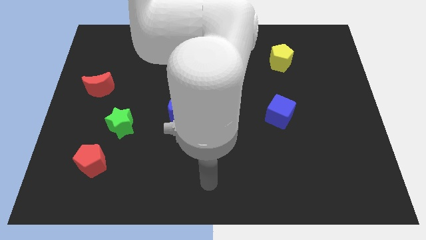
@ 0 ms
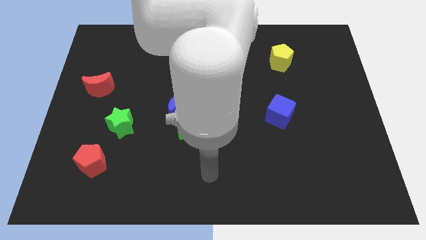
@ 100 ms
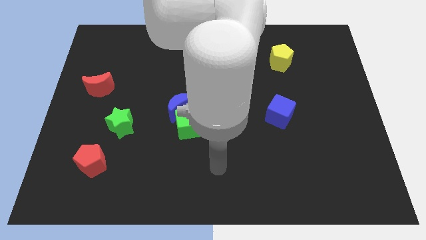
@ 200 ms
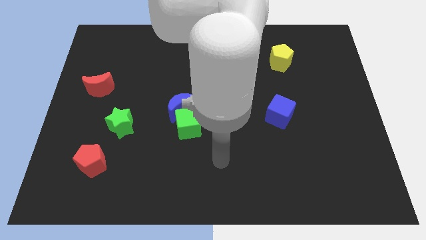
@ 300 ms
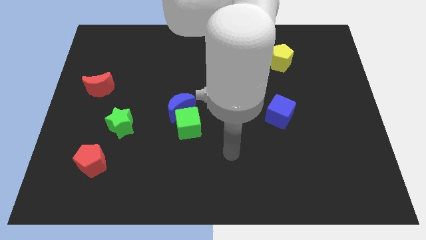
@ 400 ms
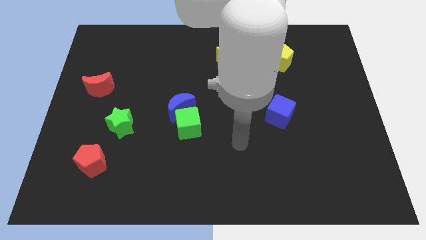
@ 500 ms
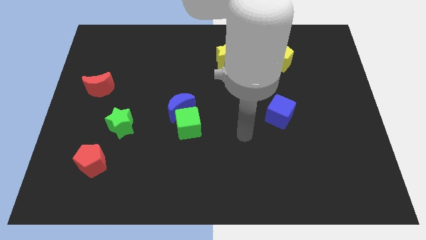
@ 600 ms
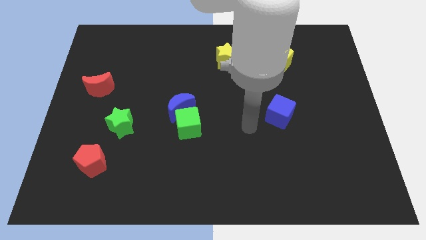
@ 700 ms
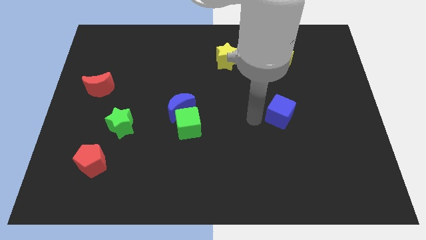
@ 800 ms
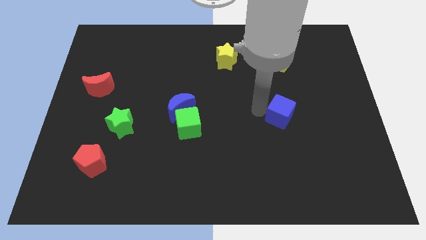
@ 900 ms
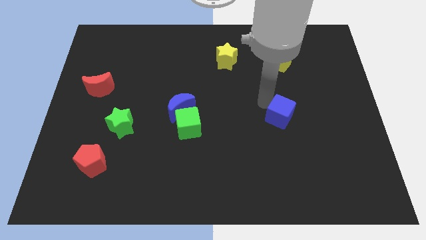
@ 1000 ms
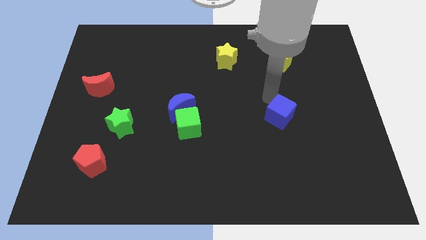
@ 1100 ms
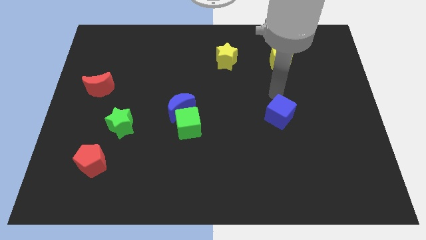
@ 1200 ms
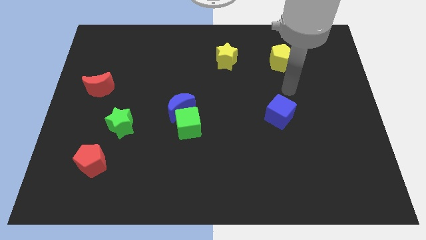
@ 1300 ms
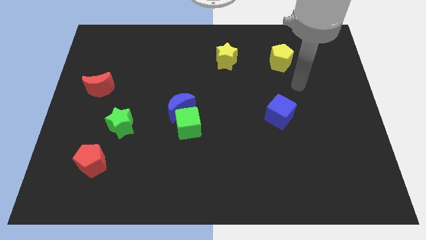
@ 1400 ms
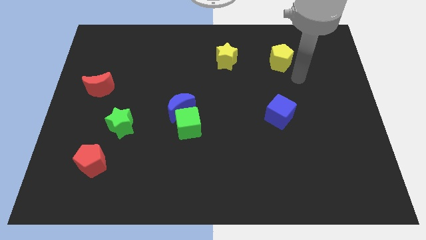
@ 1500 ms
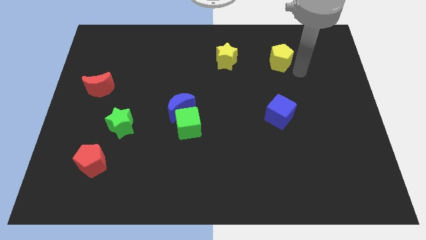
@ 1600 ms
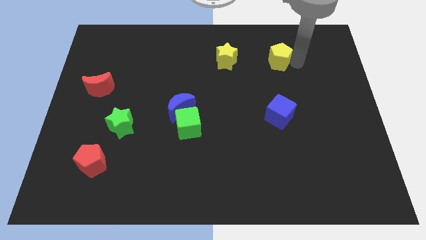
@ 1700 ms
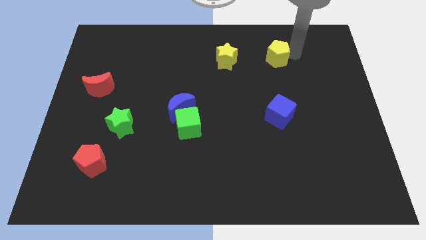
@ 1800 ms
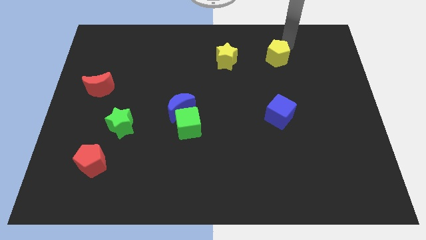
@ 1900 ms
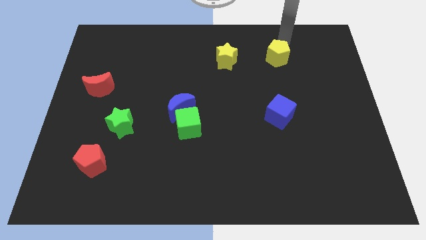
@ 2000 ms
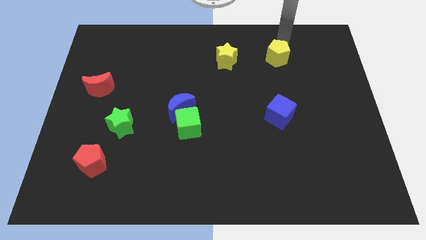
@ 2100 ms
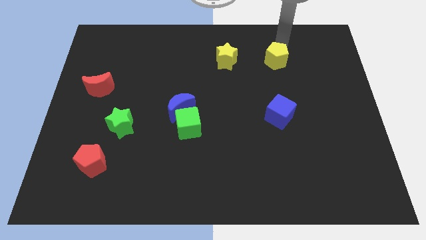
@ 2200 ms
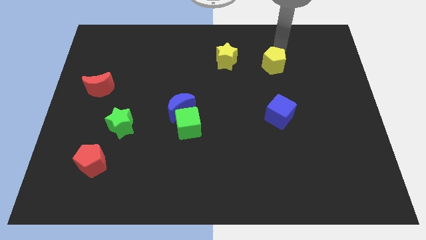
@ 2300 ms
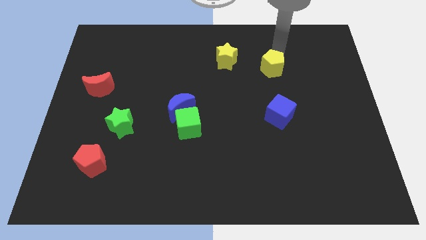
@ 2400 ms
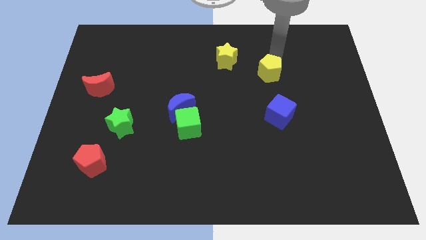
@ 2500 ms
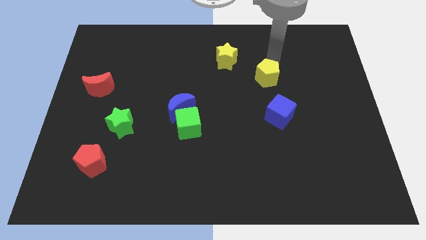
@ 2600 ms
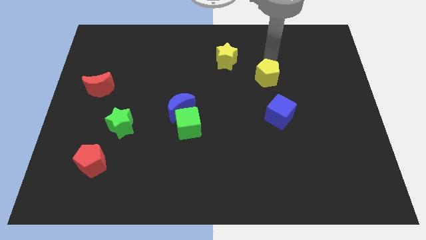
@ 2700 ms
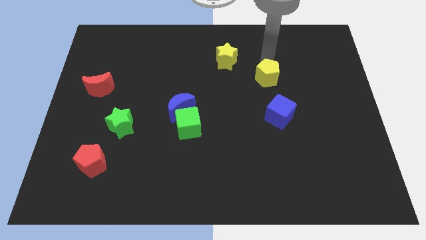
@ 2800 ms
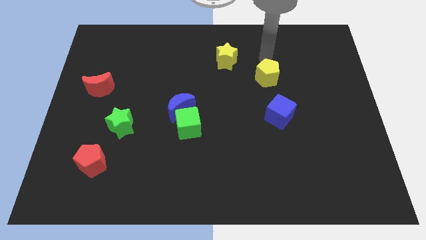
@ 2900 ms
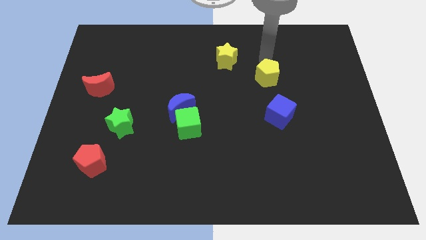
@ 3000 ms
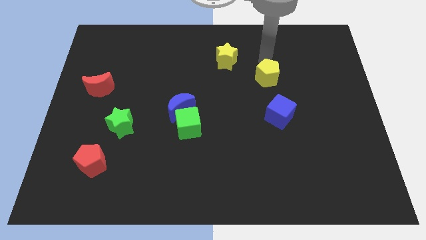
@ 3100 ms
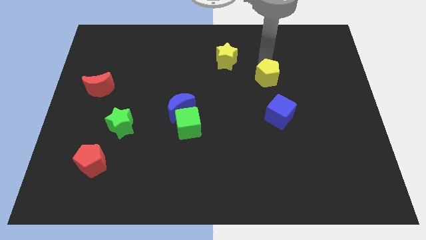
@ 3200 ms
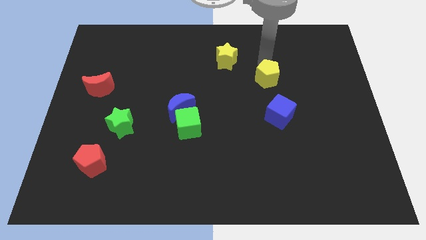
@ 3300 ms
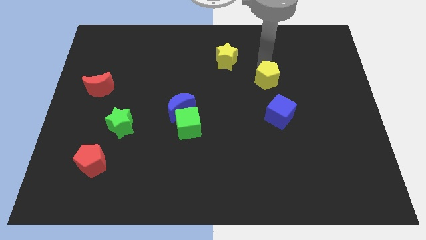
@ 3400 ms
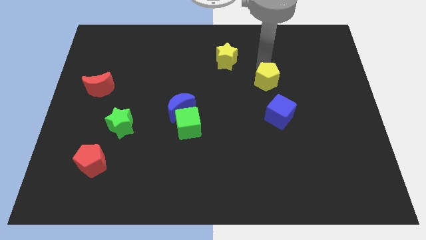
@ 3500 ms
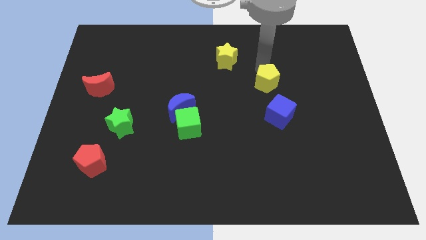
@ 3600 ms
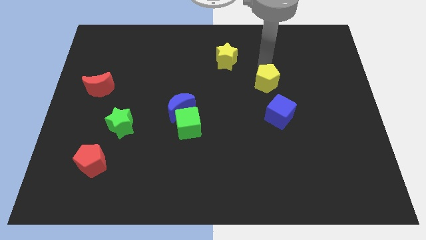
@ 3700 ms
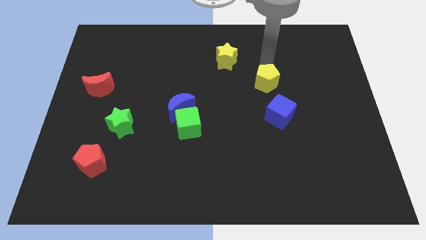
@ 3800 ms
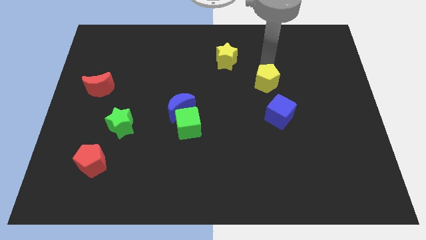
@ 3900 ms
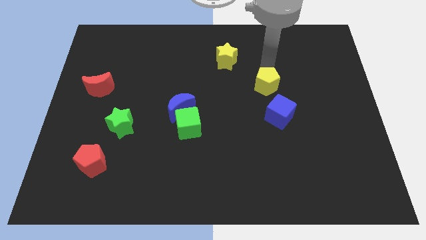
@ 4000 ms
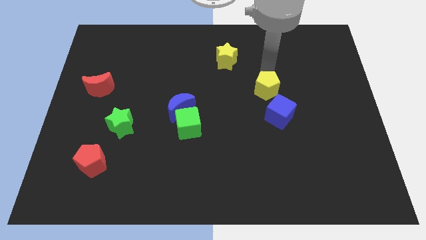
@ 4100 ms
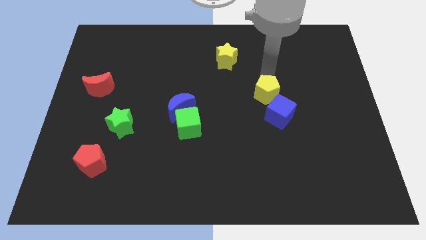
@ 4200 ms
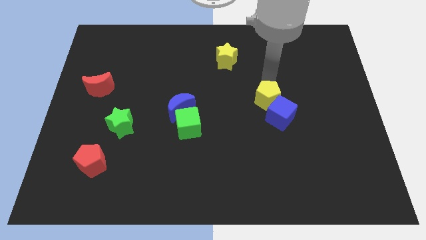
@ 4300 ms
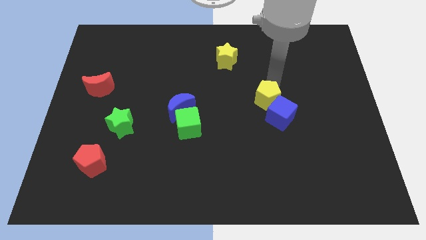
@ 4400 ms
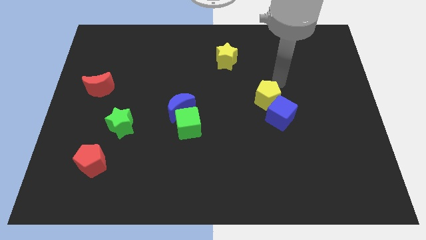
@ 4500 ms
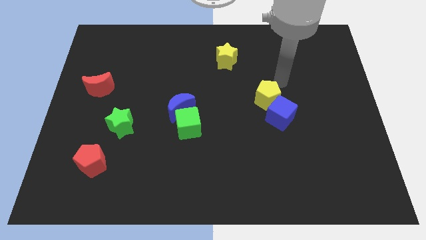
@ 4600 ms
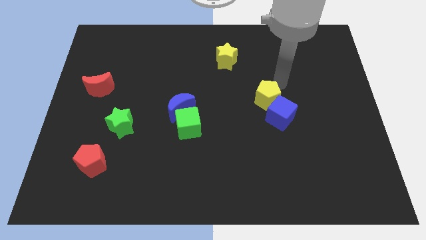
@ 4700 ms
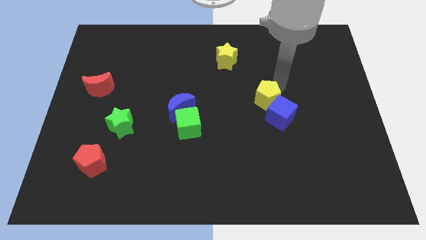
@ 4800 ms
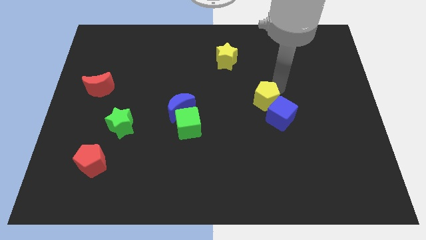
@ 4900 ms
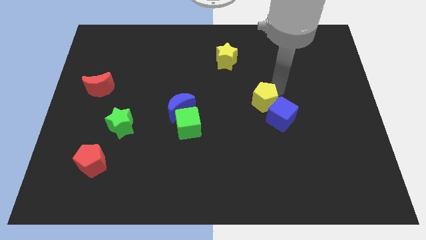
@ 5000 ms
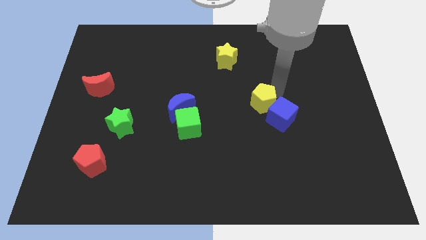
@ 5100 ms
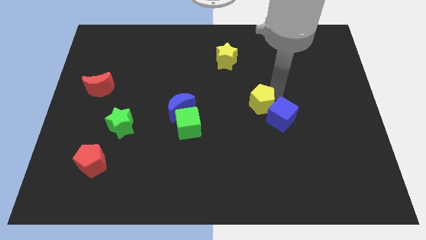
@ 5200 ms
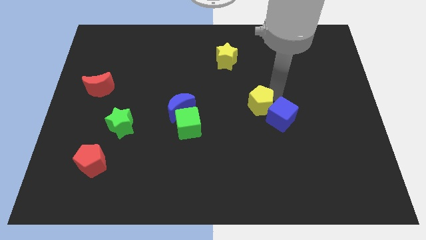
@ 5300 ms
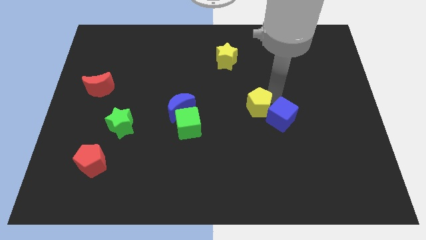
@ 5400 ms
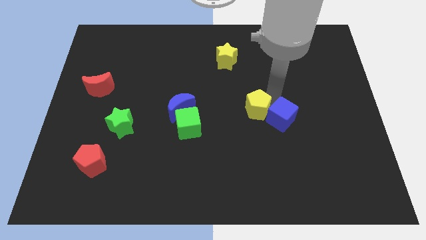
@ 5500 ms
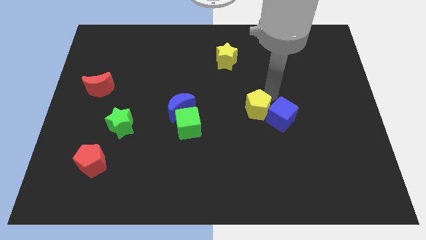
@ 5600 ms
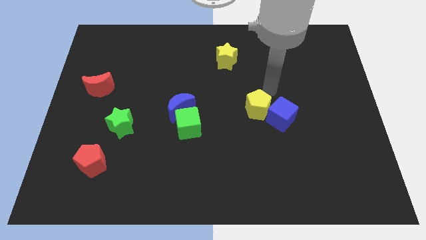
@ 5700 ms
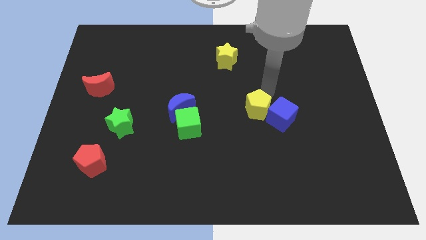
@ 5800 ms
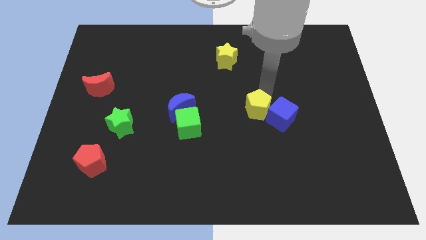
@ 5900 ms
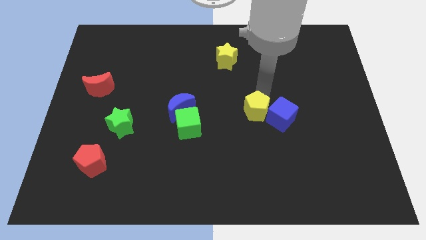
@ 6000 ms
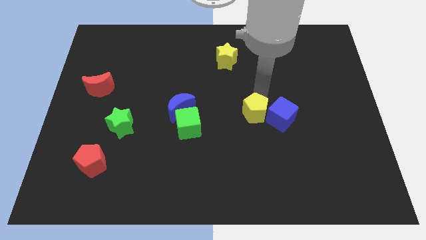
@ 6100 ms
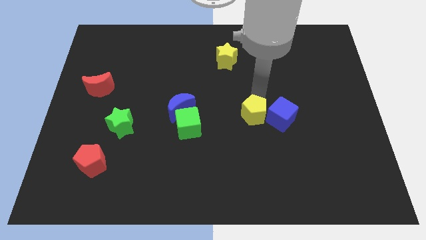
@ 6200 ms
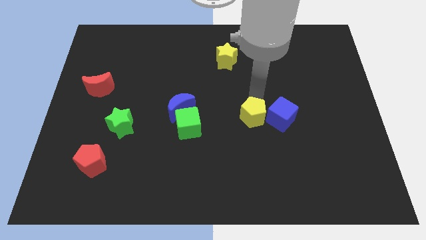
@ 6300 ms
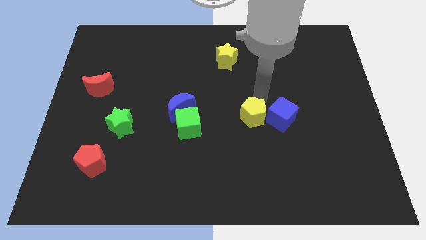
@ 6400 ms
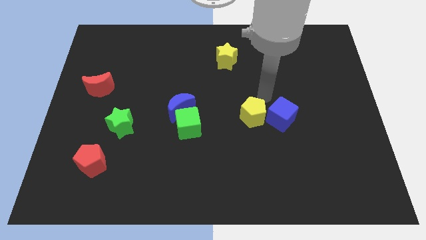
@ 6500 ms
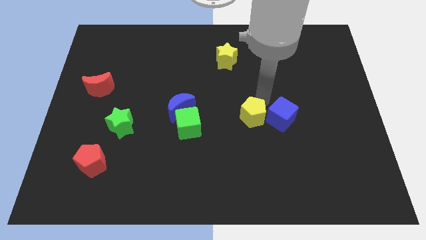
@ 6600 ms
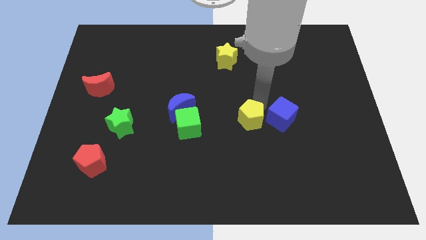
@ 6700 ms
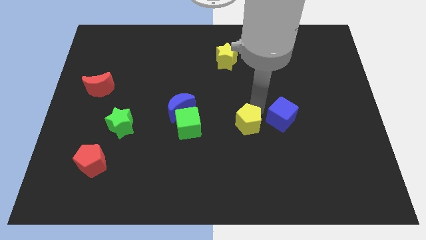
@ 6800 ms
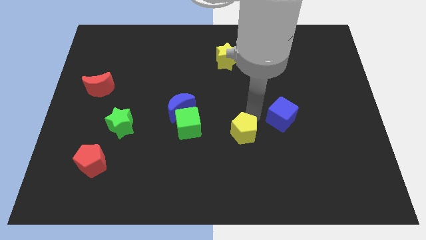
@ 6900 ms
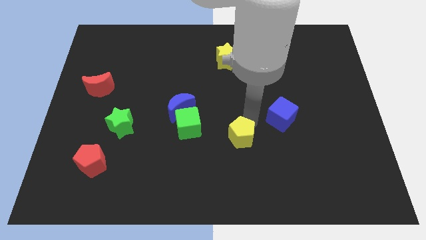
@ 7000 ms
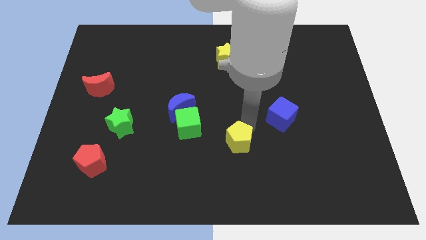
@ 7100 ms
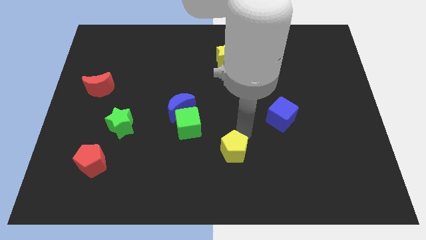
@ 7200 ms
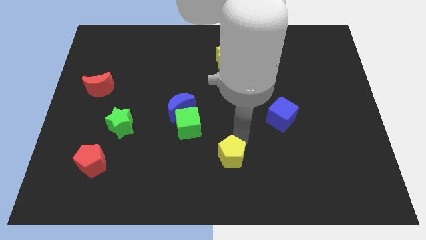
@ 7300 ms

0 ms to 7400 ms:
move the yellow pentagon to the bottom
